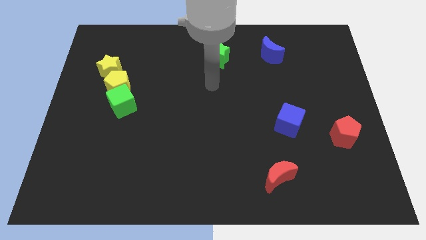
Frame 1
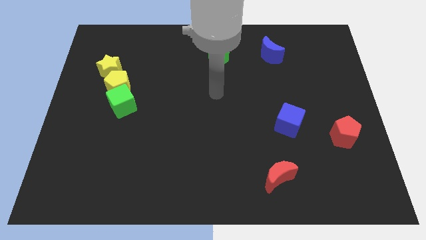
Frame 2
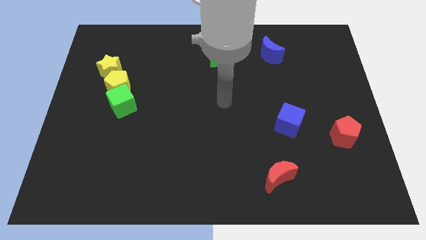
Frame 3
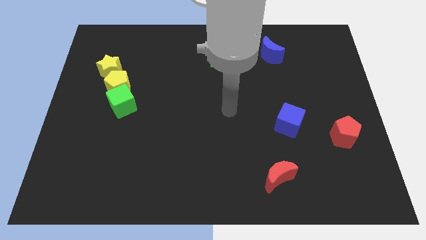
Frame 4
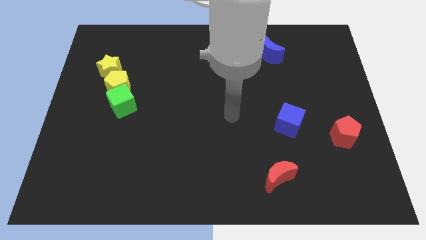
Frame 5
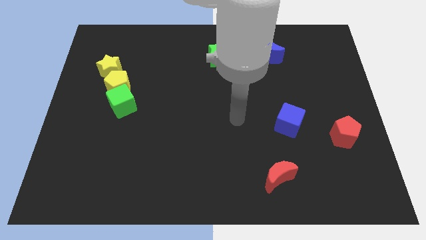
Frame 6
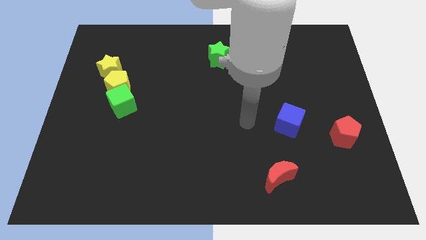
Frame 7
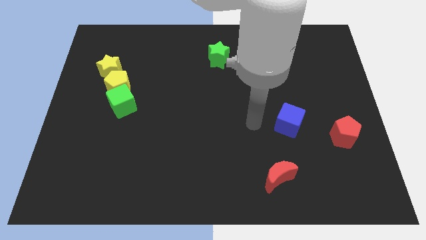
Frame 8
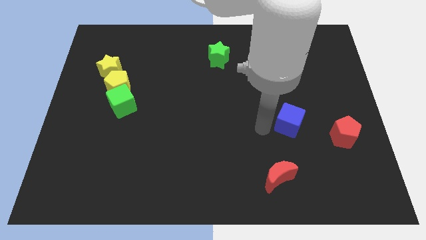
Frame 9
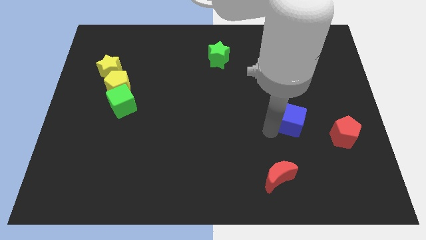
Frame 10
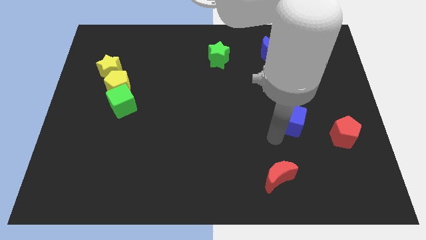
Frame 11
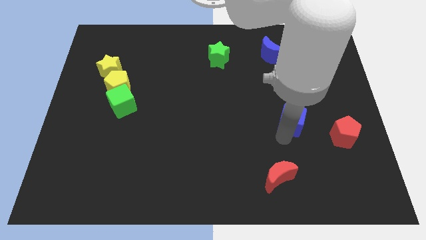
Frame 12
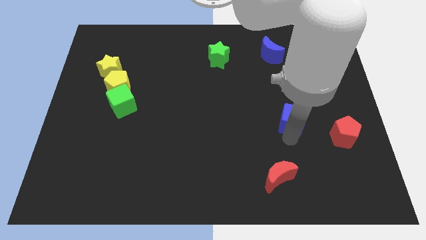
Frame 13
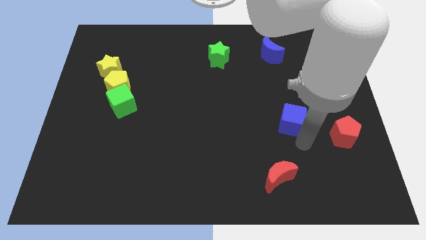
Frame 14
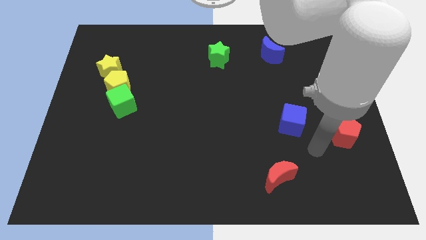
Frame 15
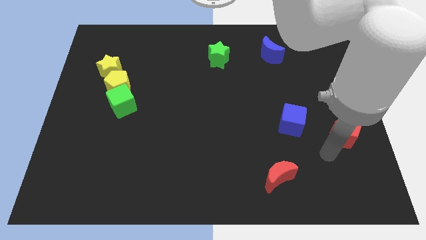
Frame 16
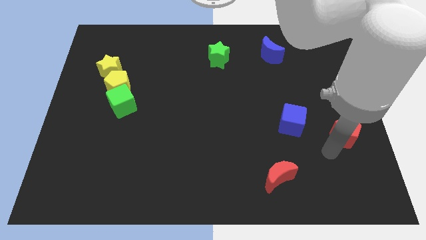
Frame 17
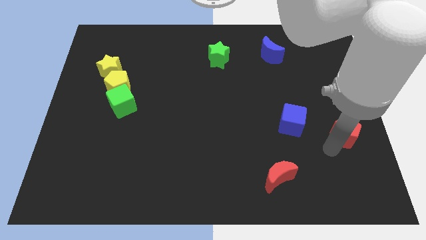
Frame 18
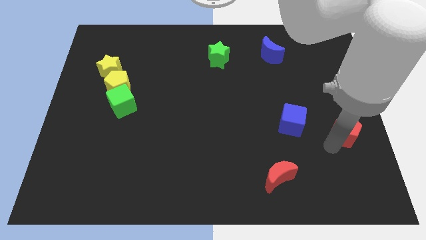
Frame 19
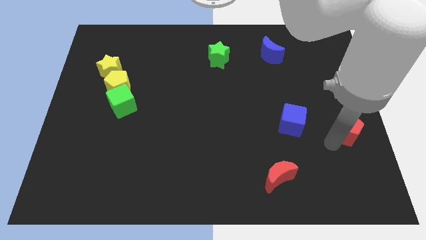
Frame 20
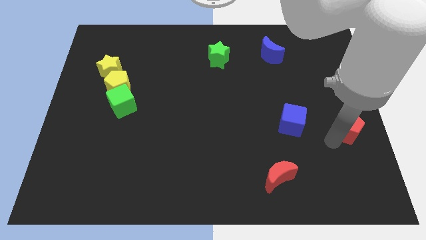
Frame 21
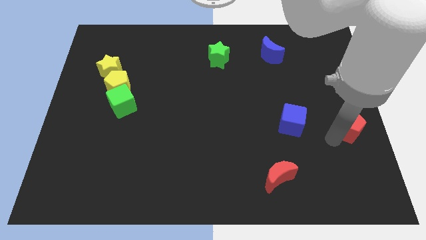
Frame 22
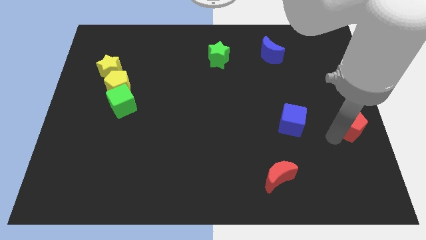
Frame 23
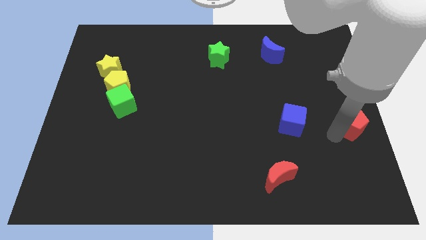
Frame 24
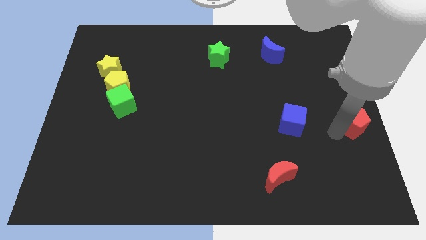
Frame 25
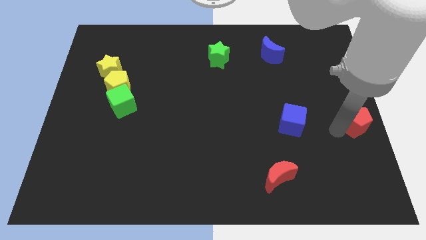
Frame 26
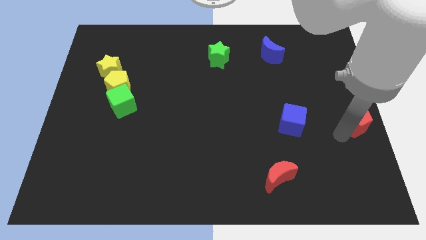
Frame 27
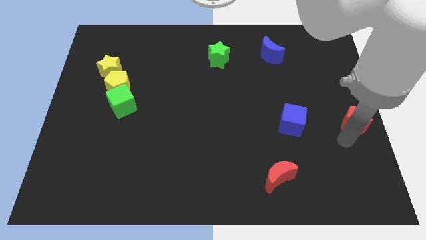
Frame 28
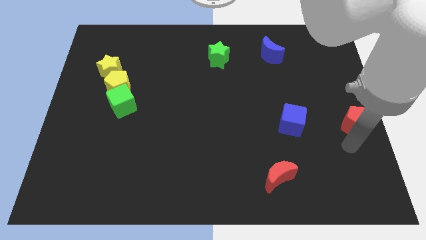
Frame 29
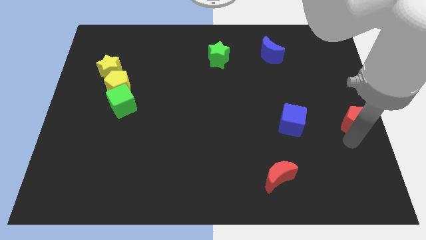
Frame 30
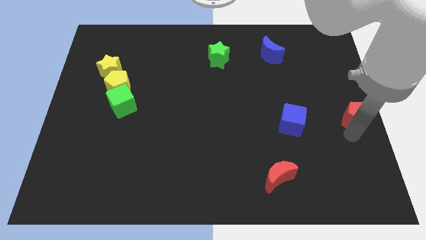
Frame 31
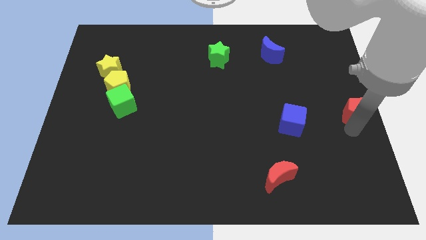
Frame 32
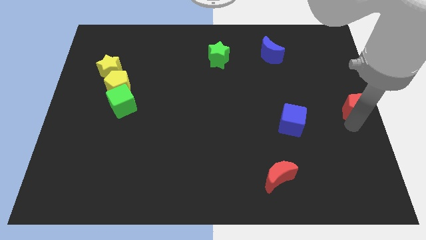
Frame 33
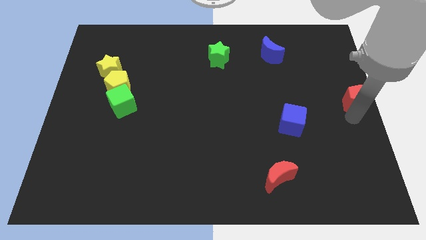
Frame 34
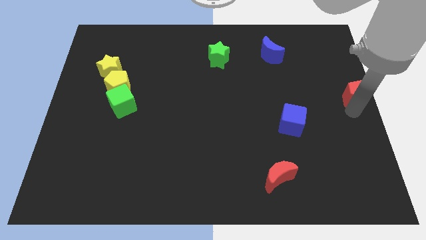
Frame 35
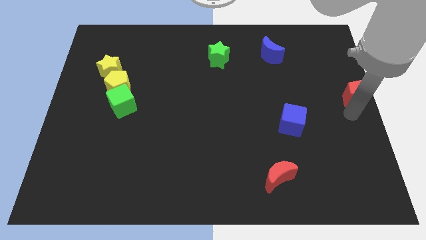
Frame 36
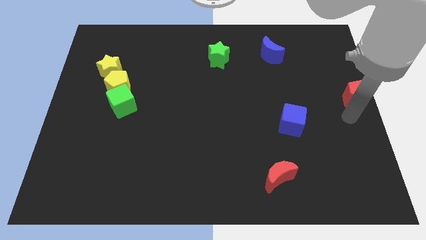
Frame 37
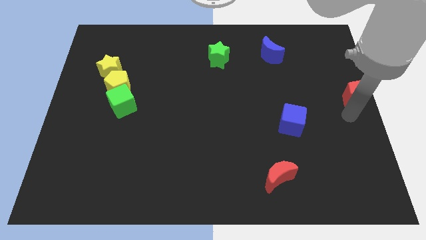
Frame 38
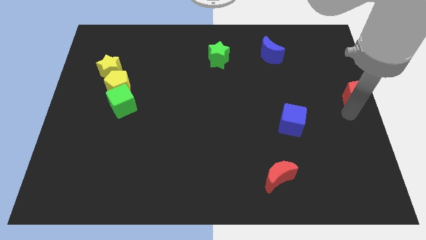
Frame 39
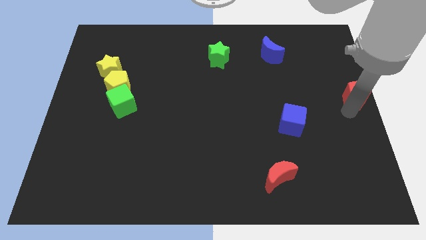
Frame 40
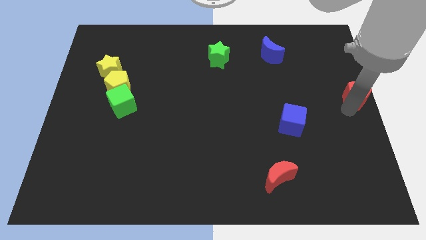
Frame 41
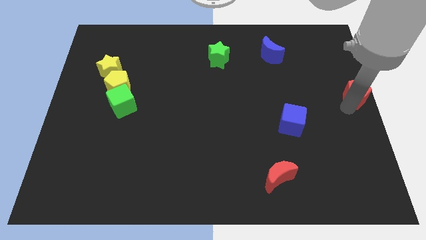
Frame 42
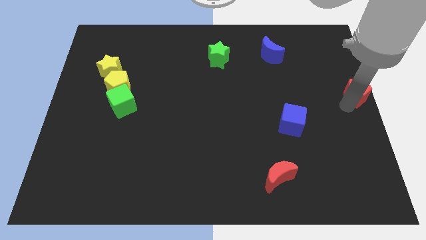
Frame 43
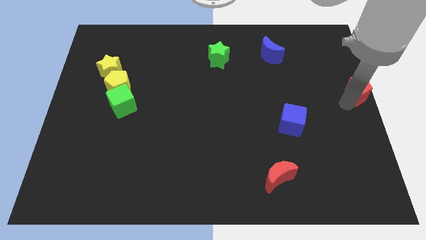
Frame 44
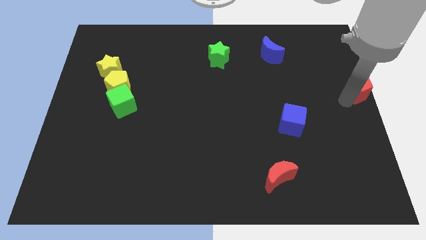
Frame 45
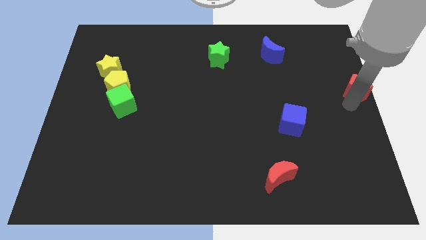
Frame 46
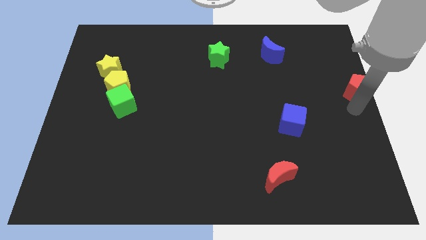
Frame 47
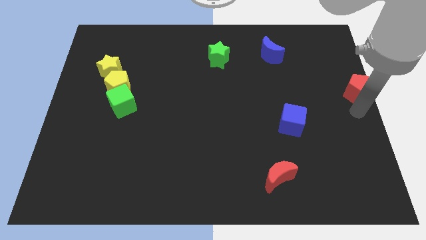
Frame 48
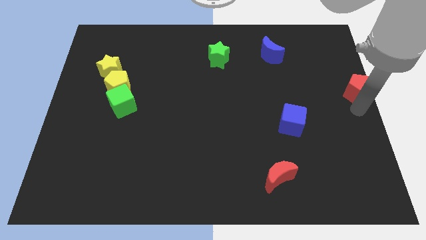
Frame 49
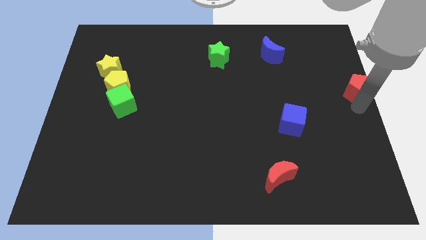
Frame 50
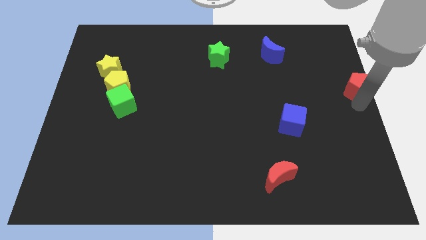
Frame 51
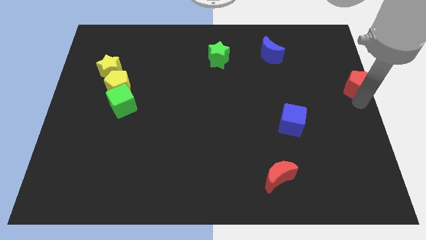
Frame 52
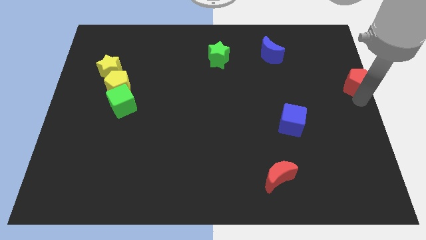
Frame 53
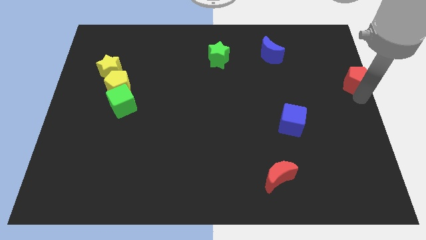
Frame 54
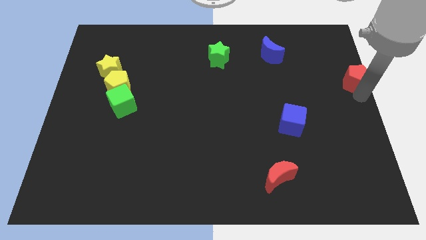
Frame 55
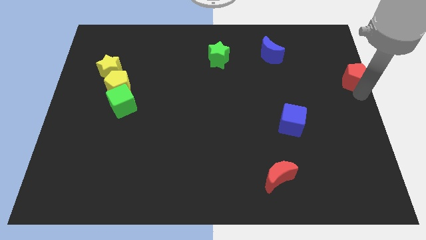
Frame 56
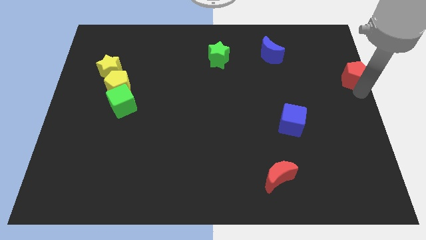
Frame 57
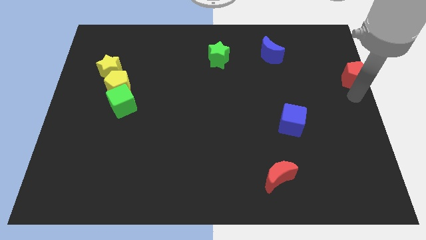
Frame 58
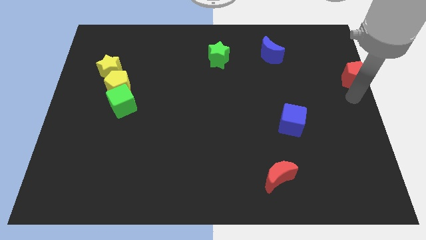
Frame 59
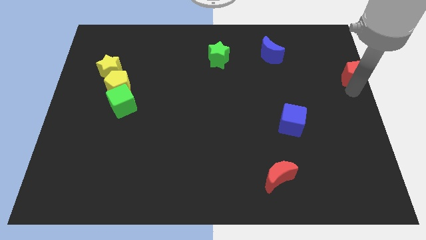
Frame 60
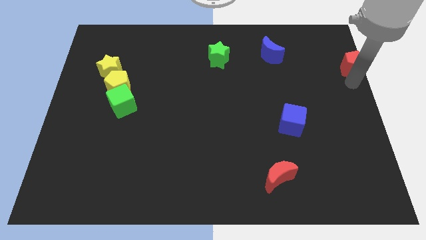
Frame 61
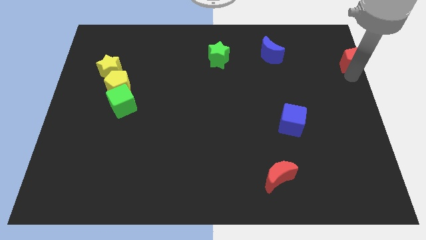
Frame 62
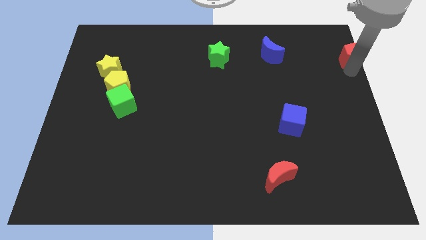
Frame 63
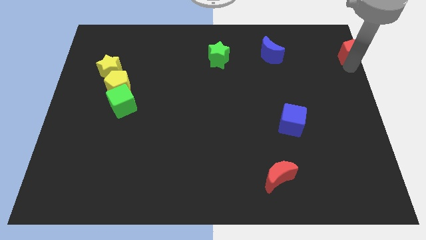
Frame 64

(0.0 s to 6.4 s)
move the red pentagon to the top right of the board

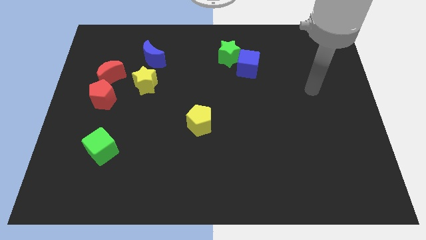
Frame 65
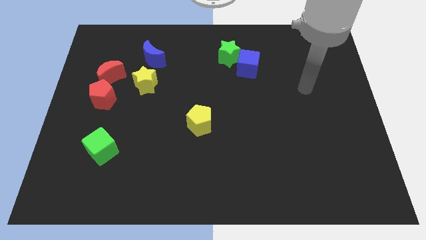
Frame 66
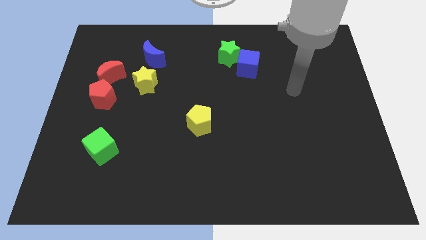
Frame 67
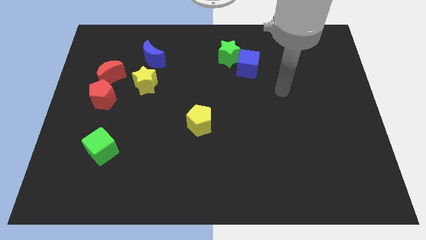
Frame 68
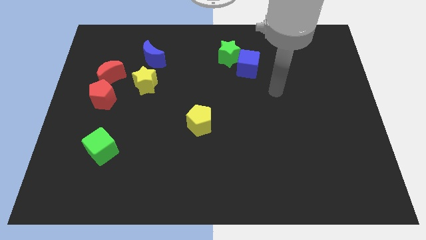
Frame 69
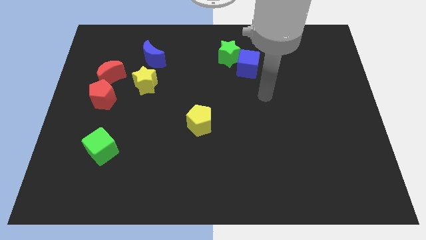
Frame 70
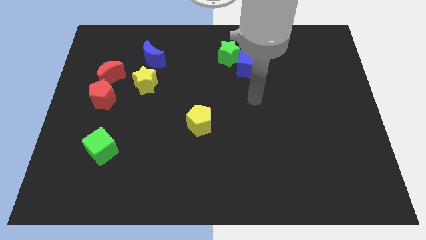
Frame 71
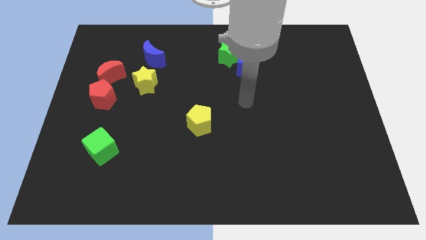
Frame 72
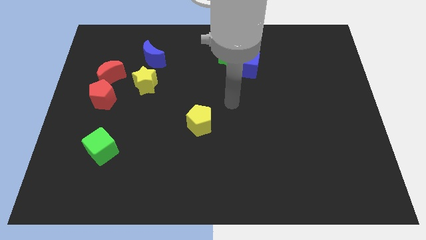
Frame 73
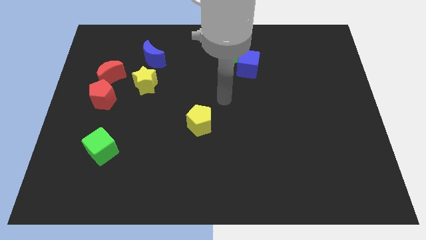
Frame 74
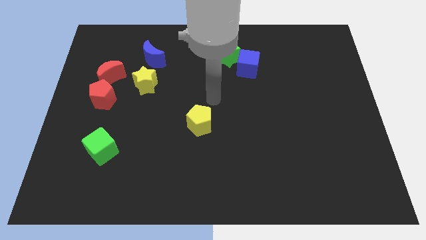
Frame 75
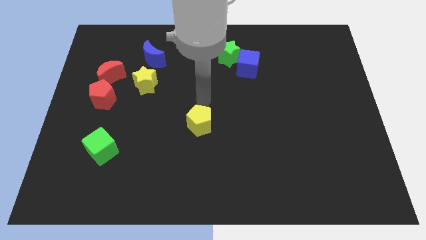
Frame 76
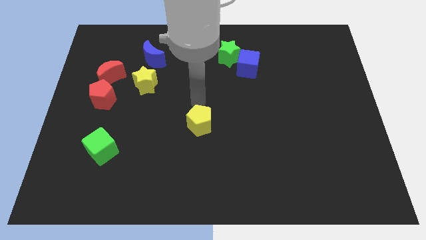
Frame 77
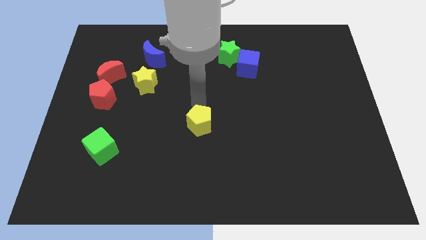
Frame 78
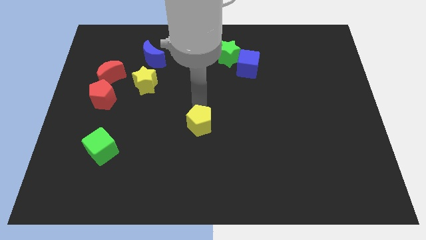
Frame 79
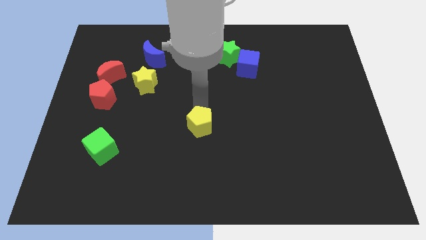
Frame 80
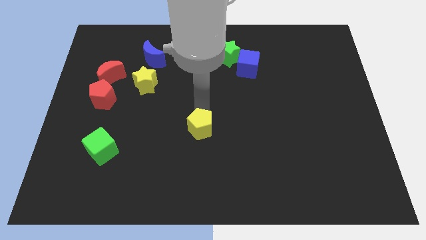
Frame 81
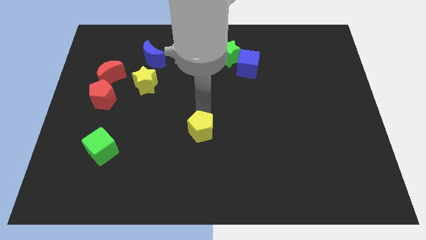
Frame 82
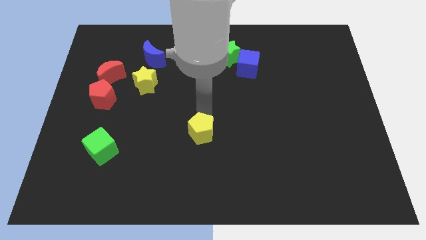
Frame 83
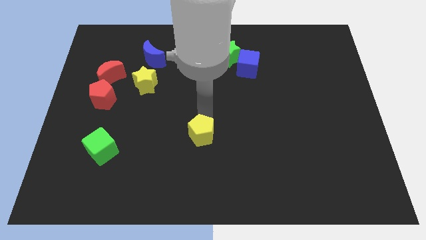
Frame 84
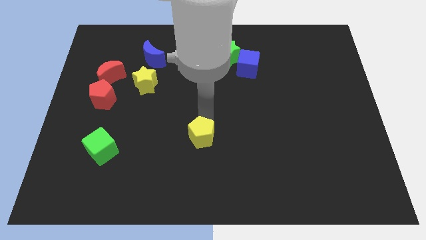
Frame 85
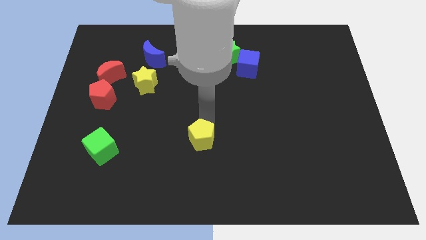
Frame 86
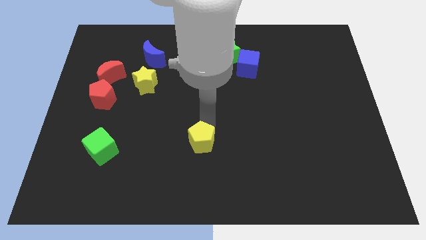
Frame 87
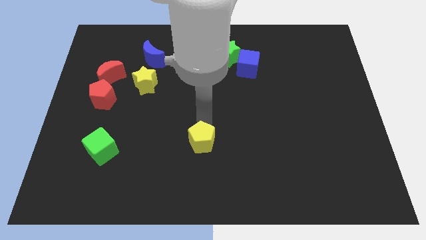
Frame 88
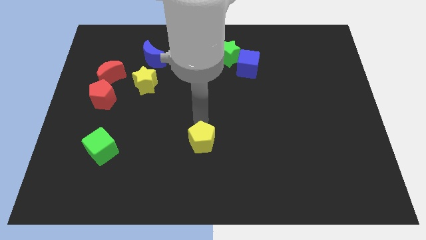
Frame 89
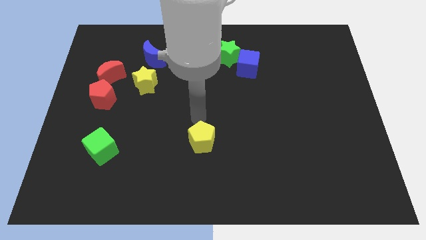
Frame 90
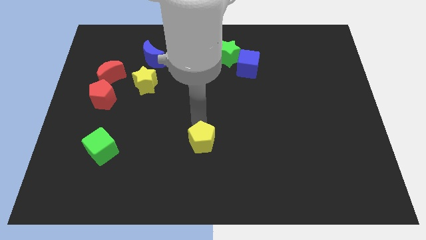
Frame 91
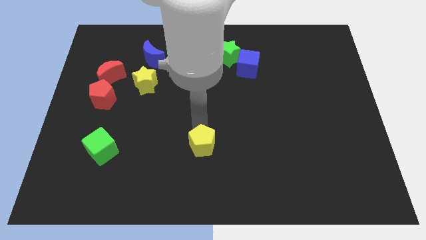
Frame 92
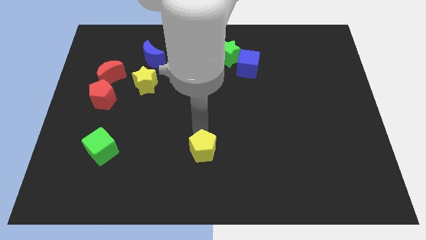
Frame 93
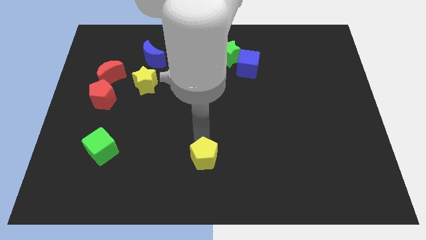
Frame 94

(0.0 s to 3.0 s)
move the yellow pentagon to the bottom side
